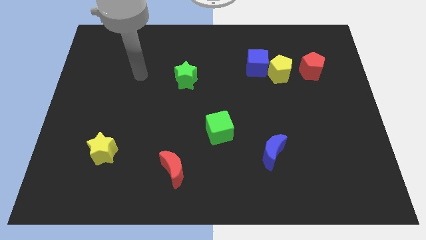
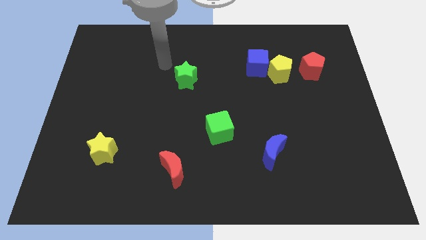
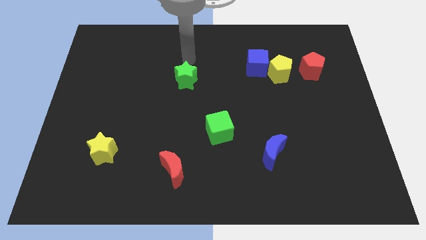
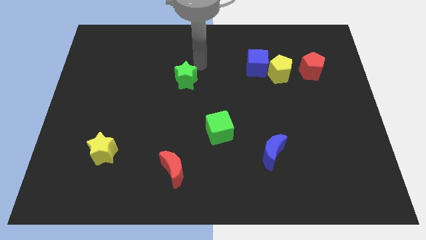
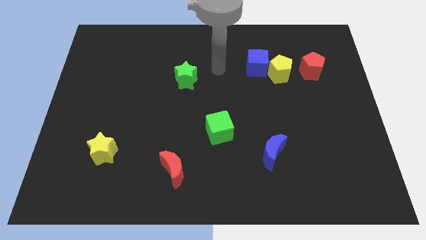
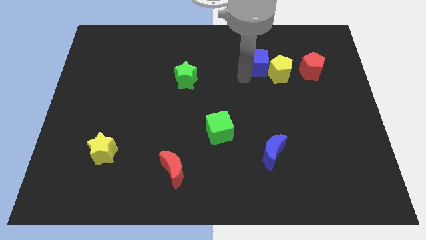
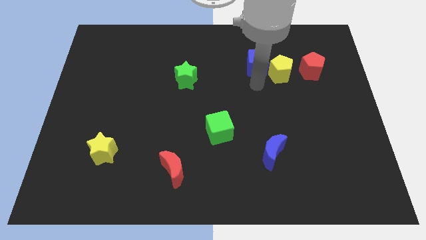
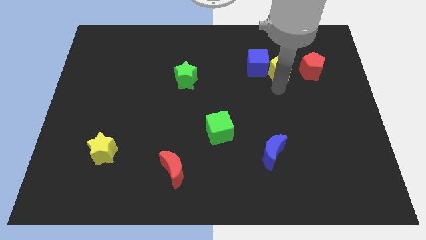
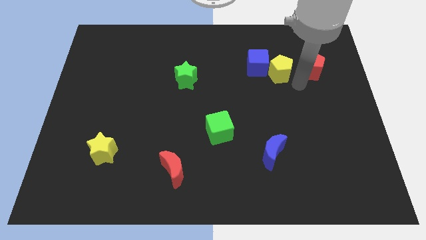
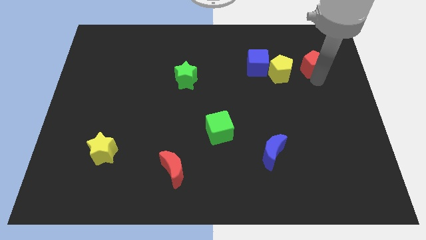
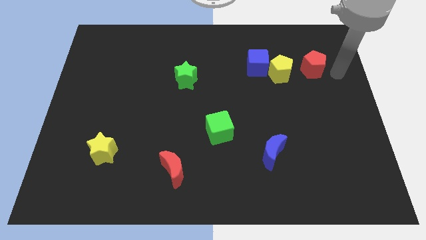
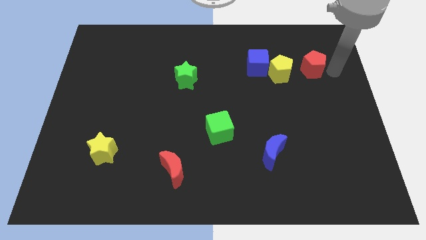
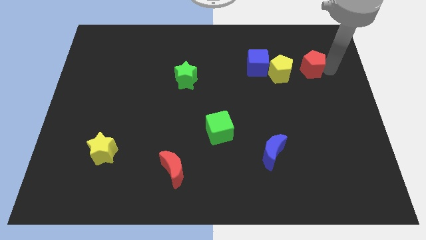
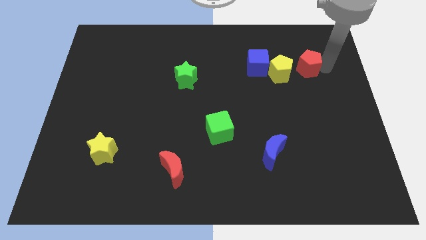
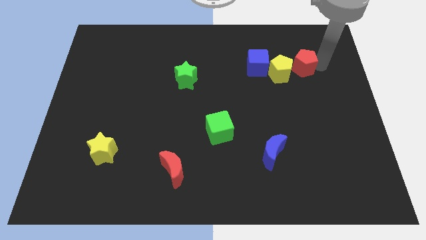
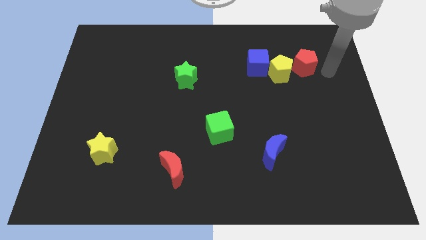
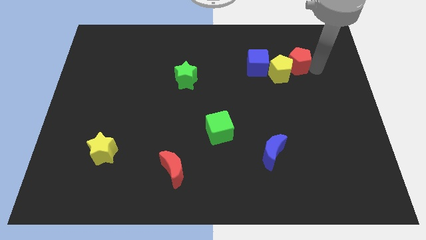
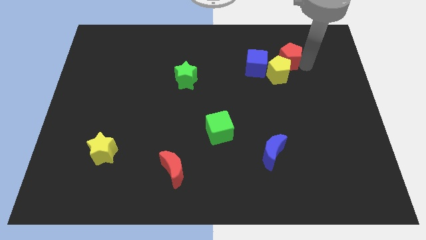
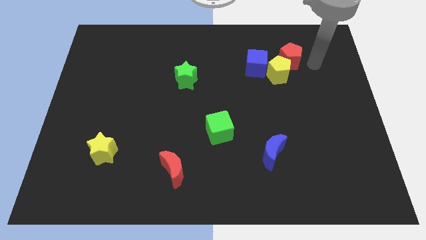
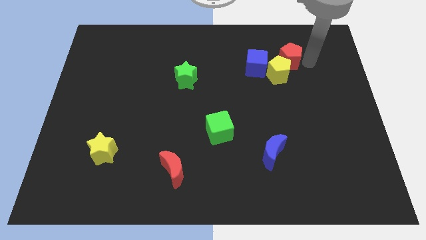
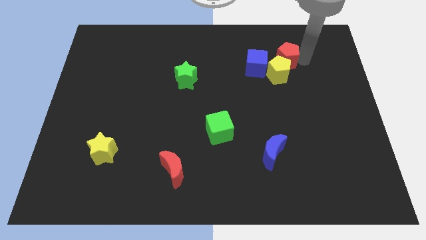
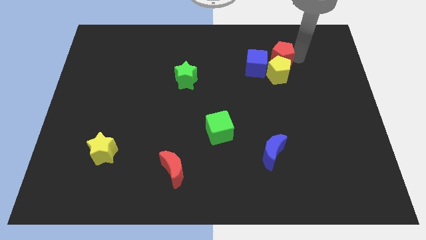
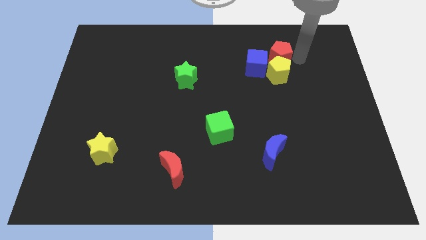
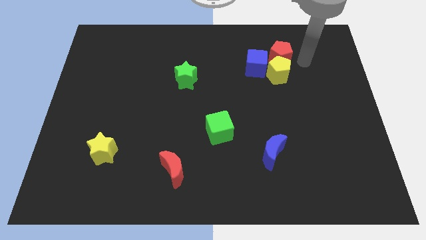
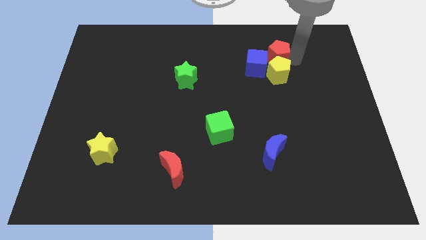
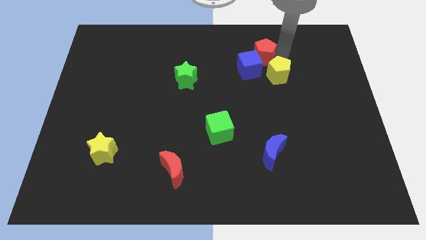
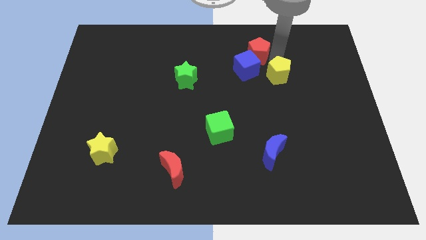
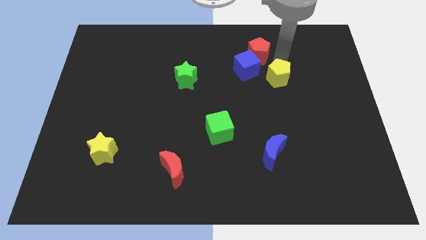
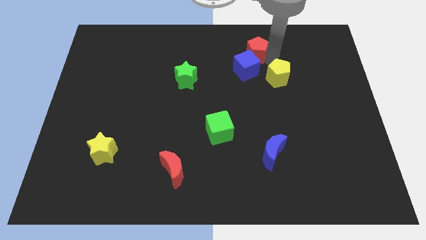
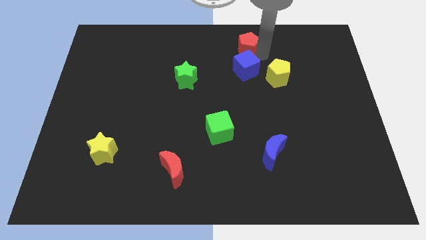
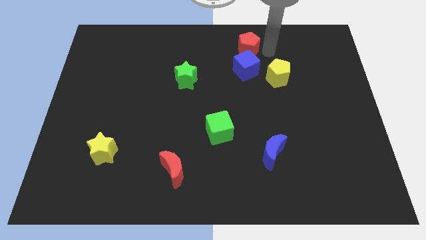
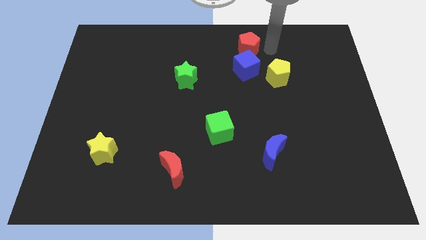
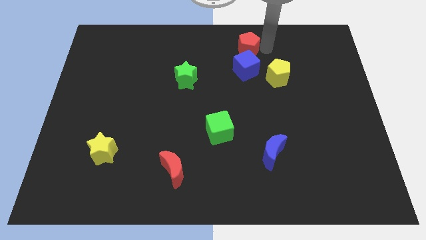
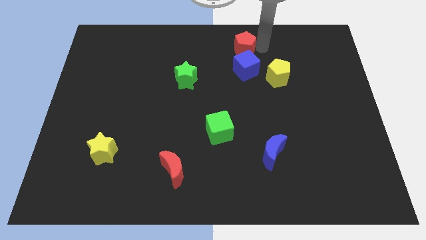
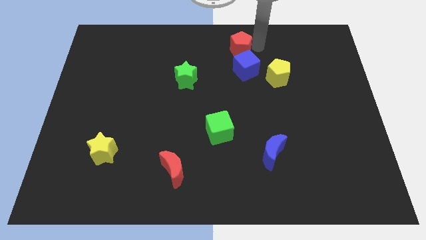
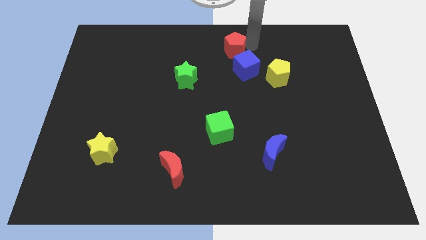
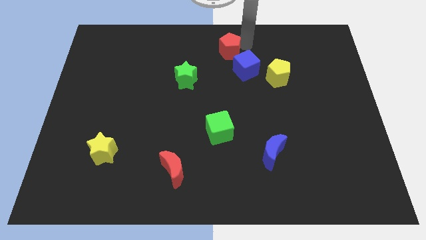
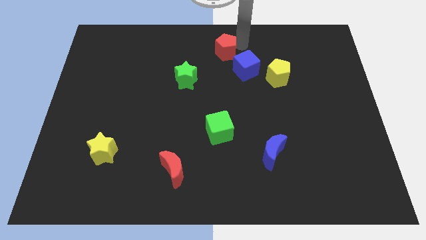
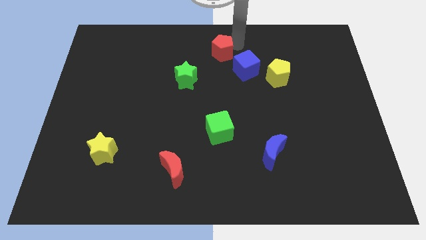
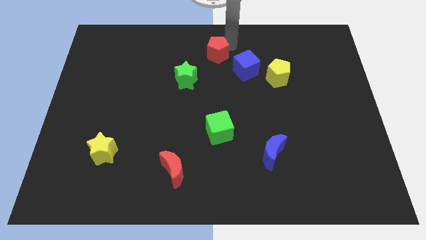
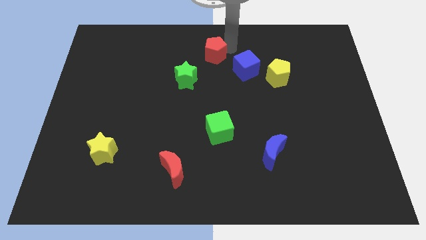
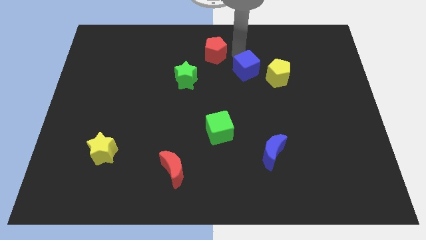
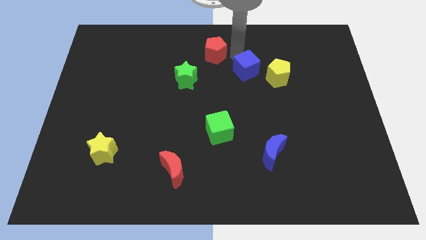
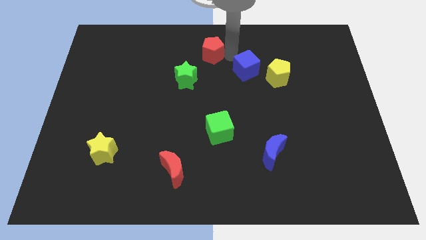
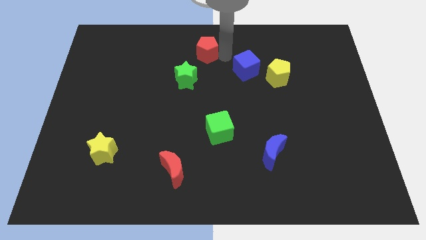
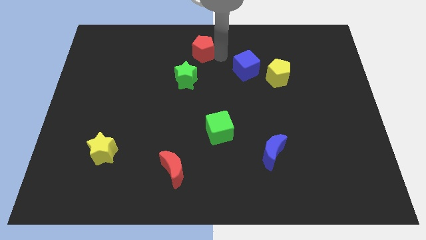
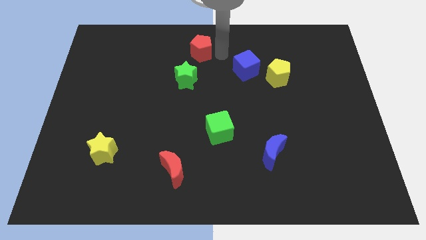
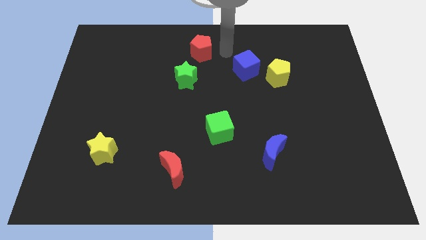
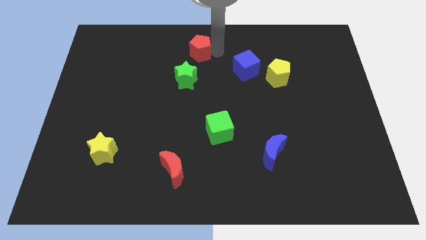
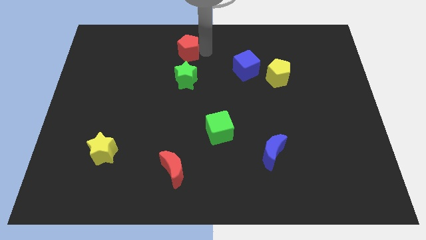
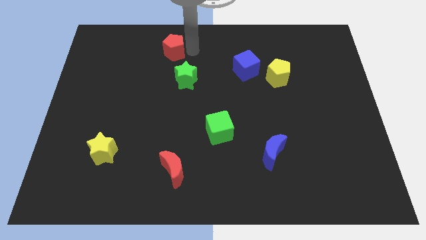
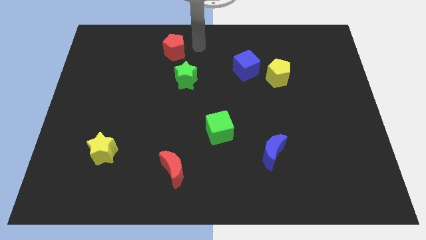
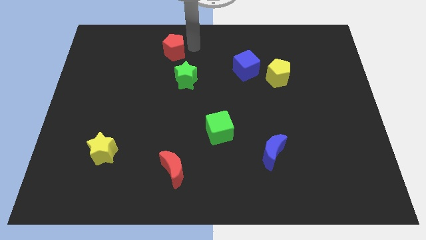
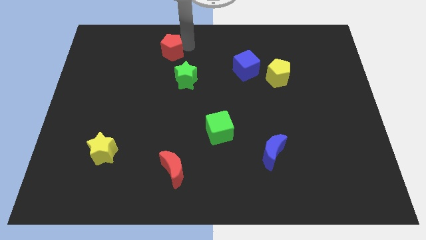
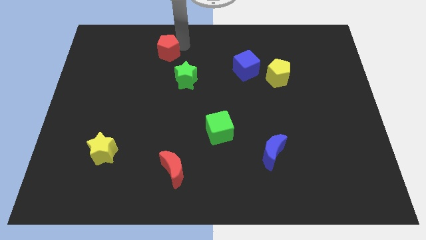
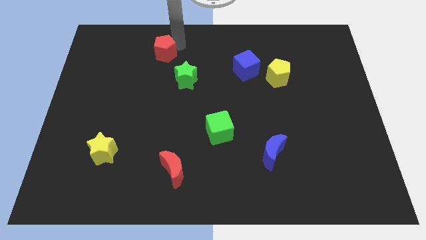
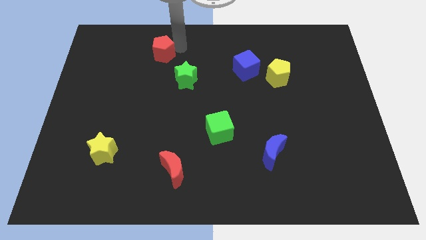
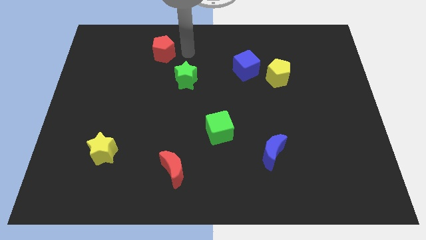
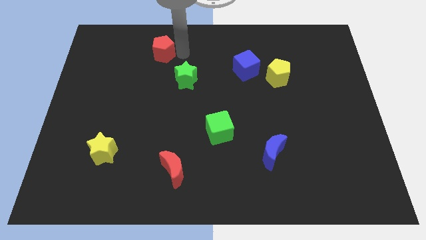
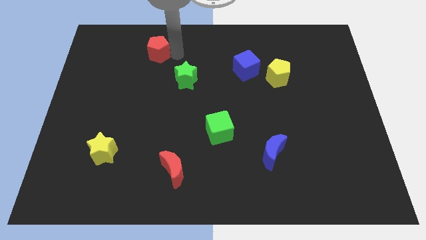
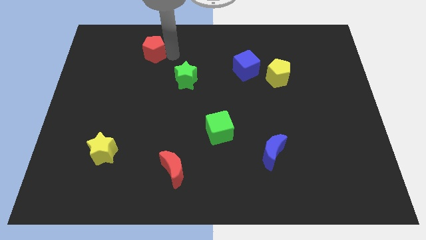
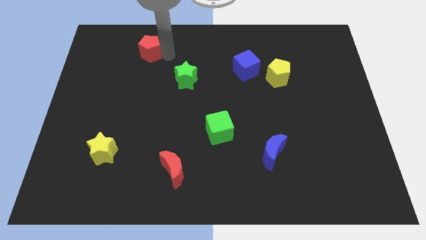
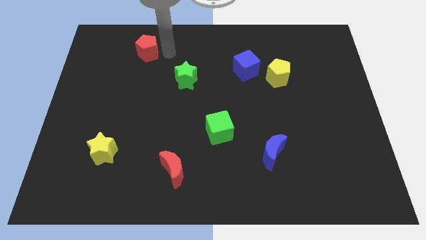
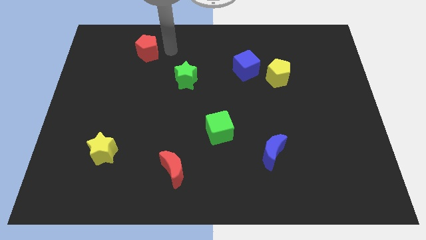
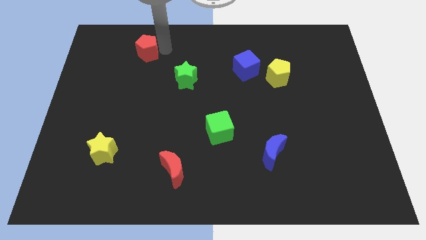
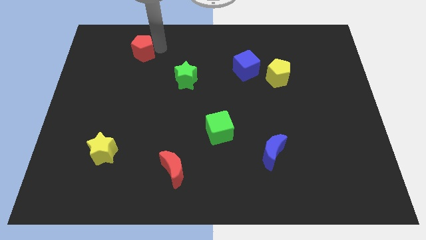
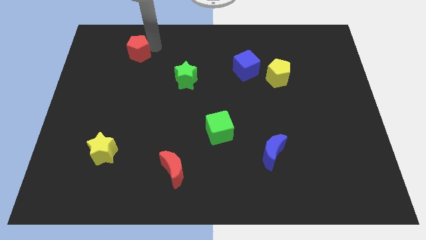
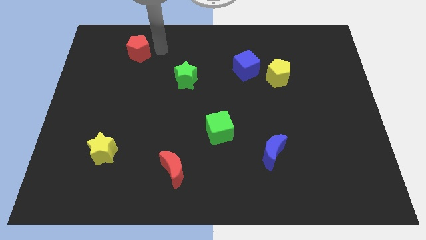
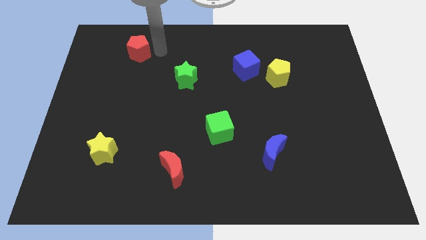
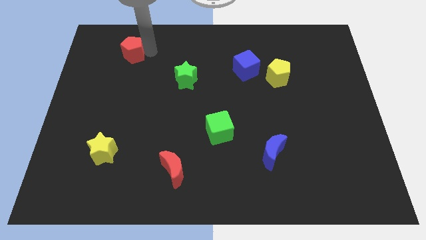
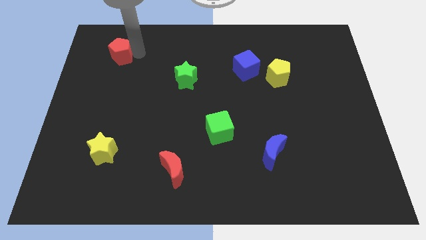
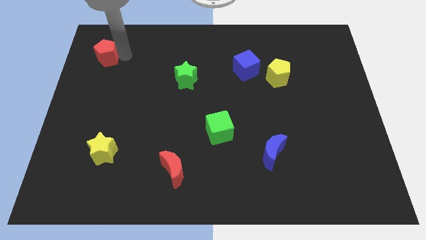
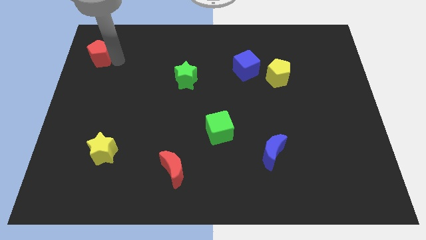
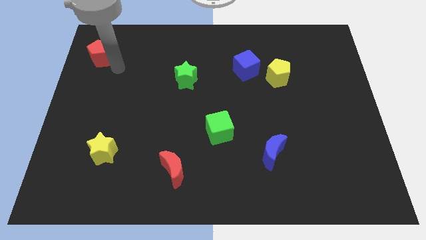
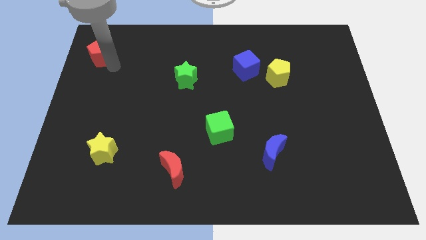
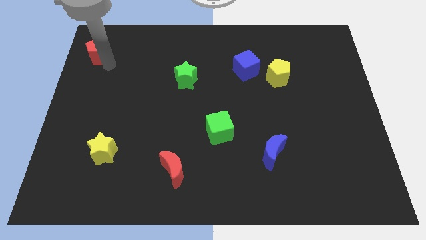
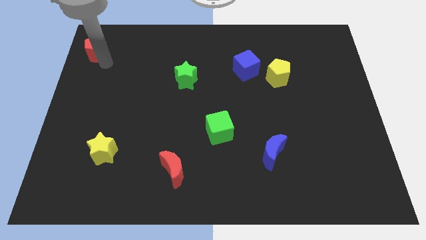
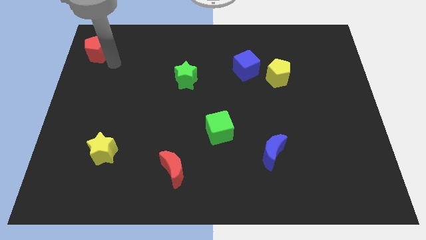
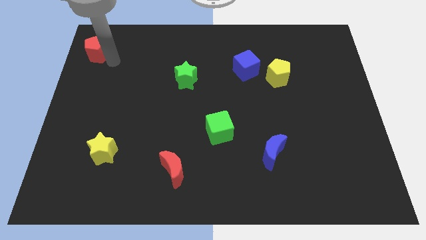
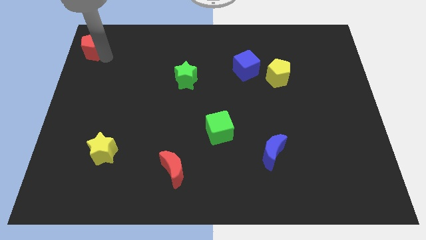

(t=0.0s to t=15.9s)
slide the red pentagon to the top left
